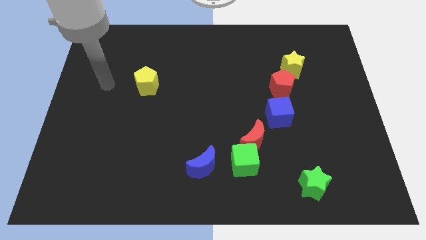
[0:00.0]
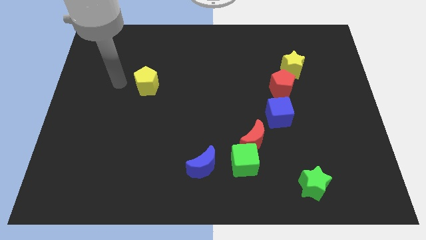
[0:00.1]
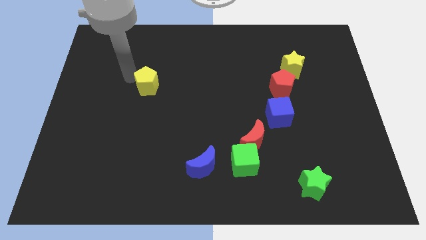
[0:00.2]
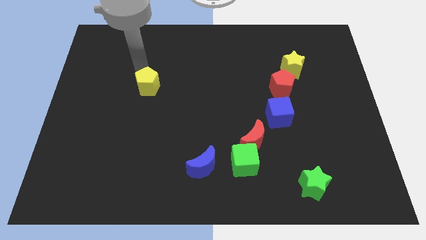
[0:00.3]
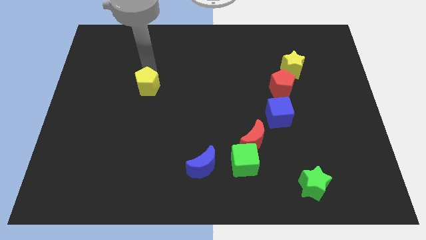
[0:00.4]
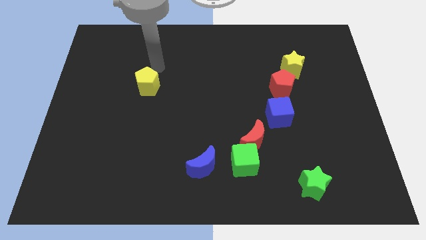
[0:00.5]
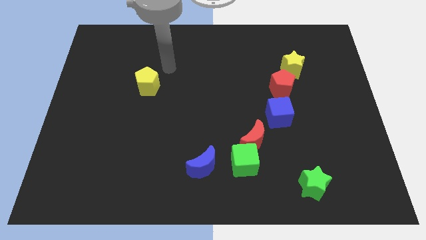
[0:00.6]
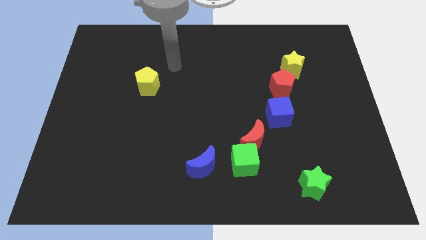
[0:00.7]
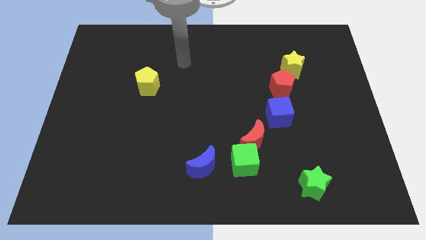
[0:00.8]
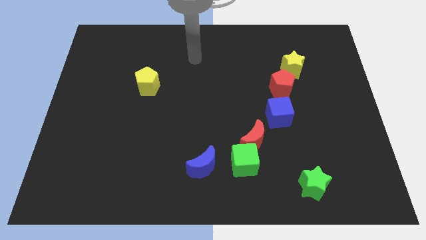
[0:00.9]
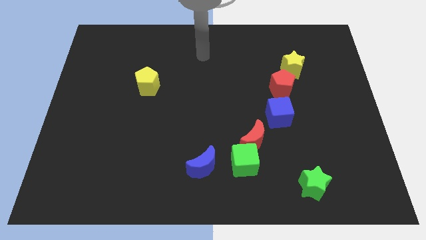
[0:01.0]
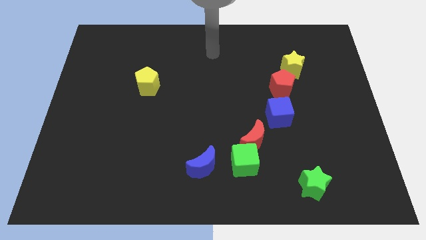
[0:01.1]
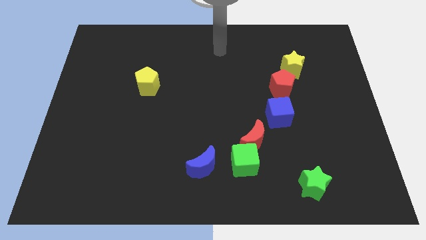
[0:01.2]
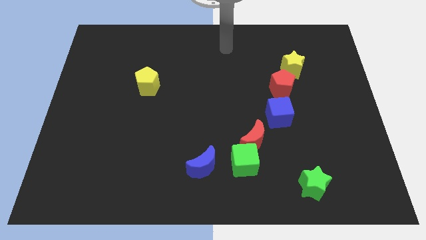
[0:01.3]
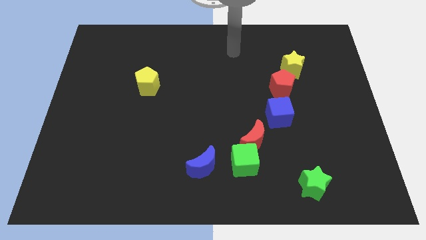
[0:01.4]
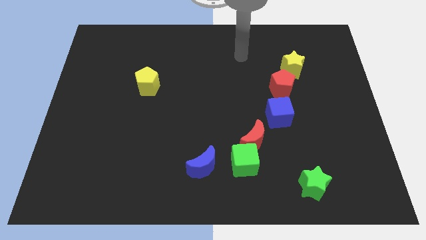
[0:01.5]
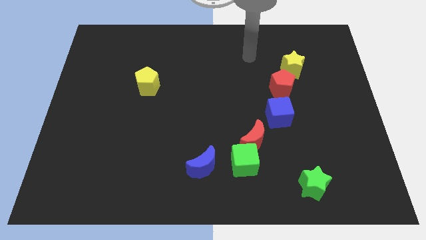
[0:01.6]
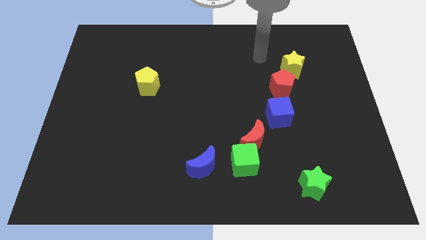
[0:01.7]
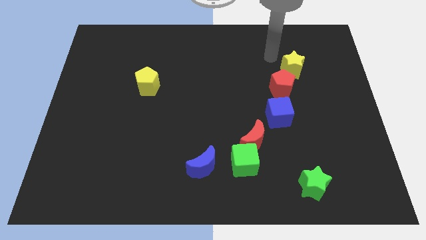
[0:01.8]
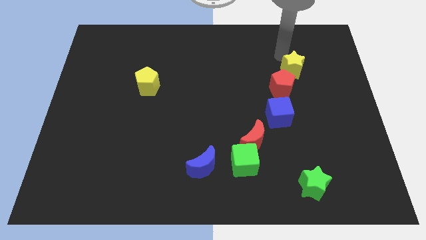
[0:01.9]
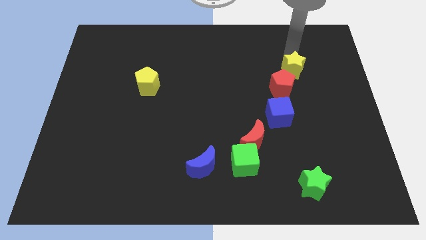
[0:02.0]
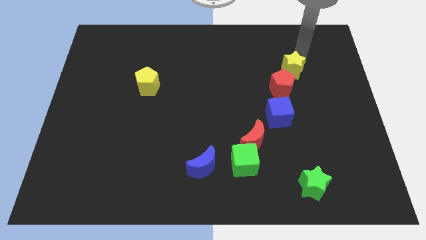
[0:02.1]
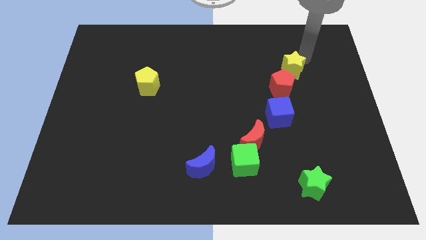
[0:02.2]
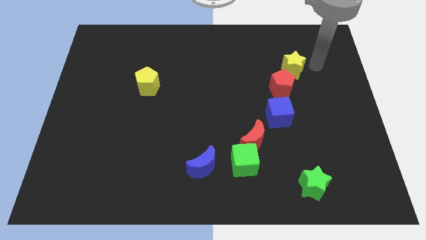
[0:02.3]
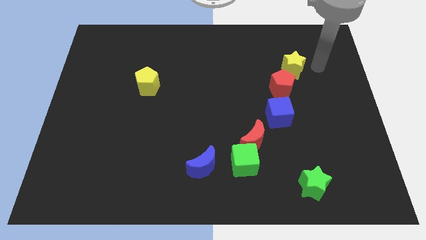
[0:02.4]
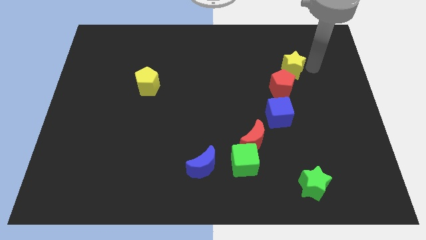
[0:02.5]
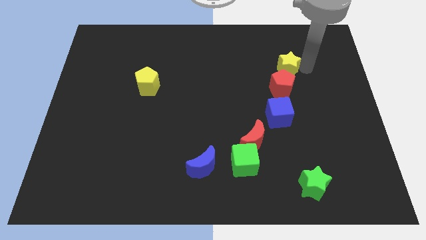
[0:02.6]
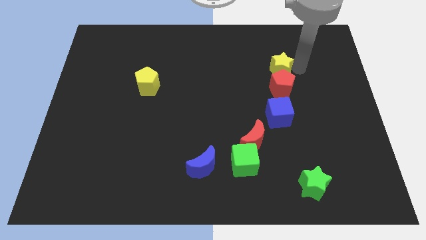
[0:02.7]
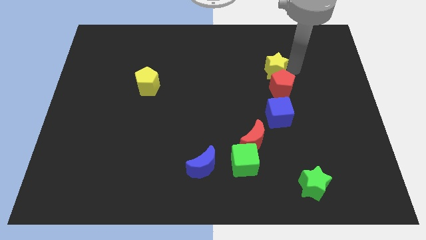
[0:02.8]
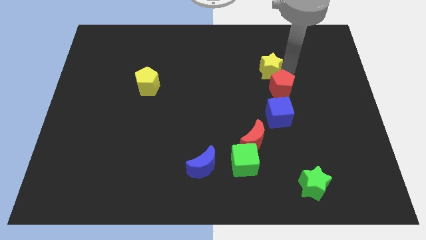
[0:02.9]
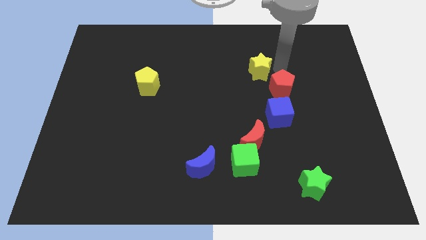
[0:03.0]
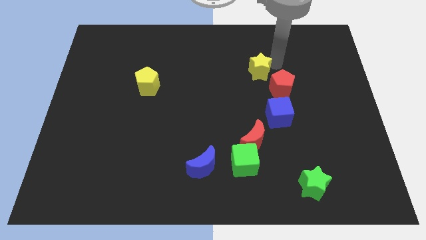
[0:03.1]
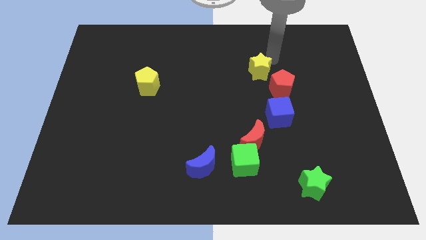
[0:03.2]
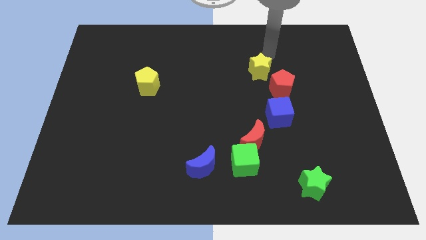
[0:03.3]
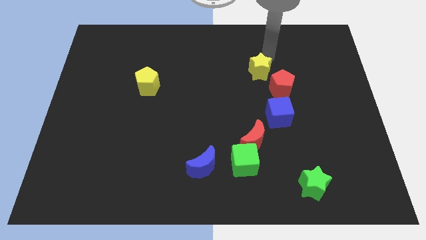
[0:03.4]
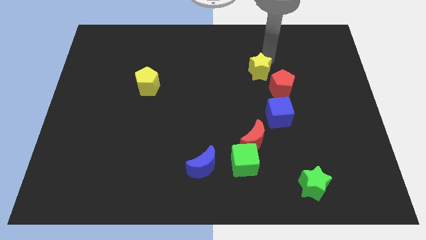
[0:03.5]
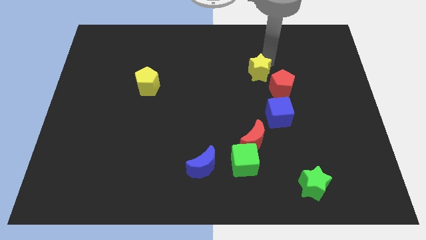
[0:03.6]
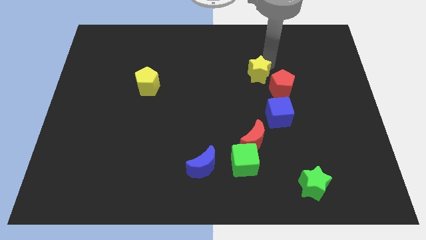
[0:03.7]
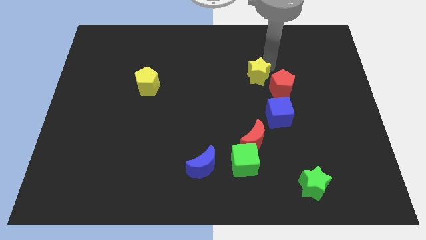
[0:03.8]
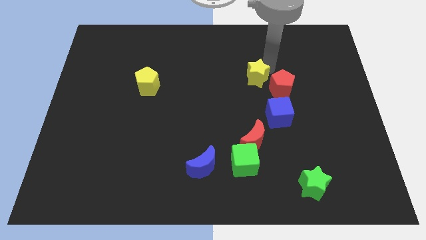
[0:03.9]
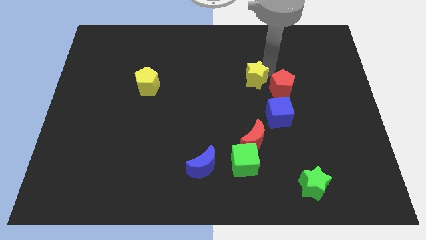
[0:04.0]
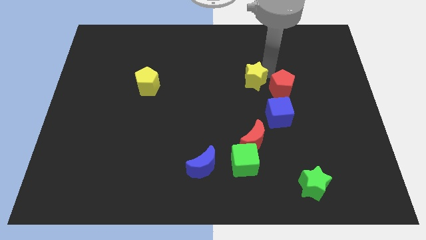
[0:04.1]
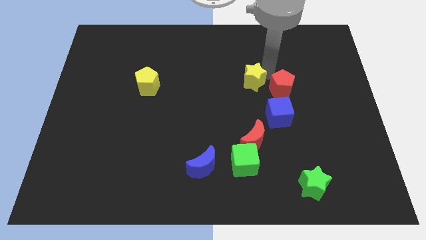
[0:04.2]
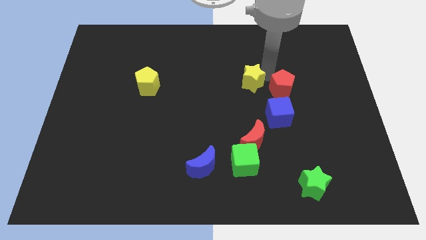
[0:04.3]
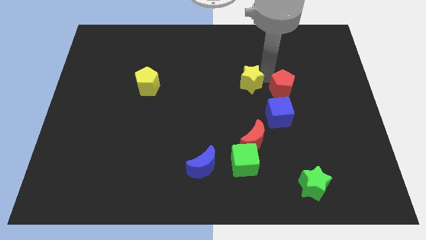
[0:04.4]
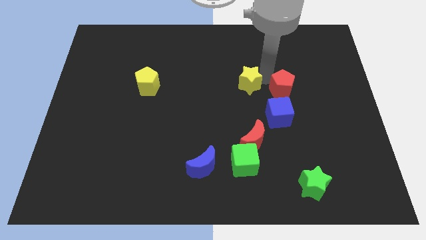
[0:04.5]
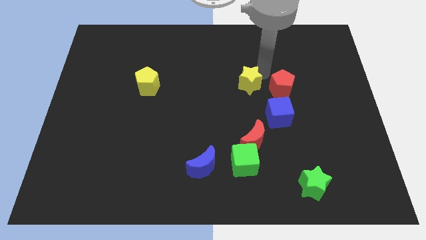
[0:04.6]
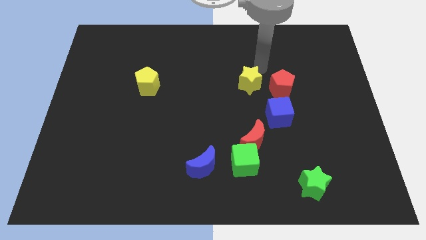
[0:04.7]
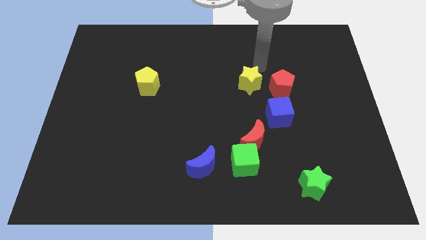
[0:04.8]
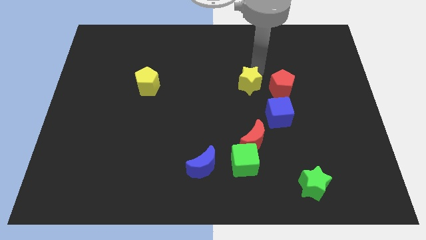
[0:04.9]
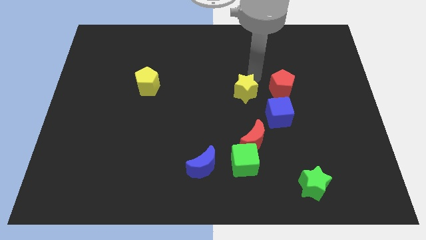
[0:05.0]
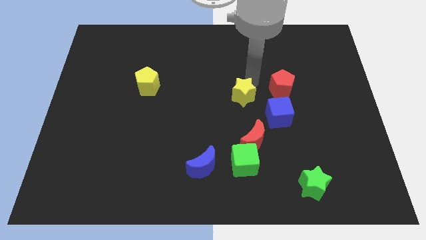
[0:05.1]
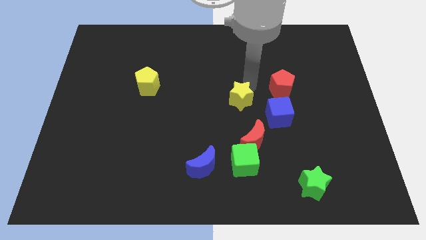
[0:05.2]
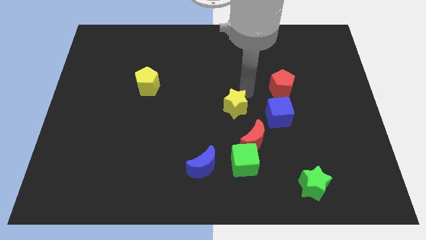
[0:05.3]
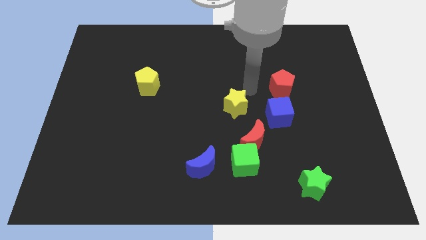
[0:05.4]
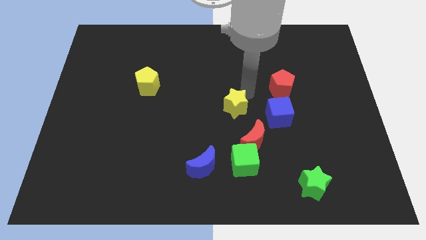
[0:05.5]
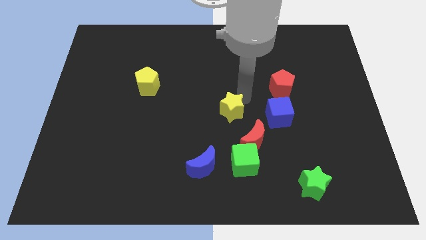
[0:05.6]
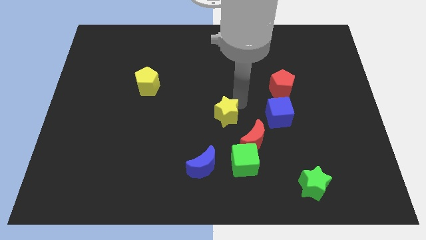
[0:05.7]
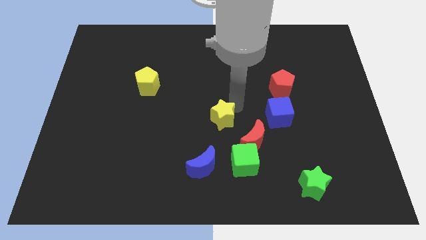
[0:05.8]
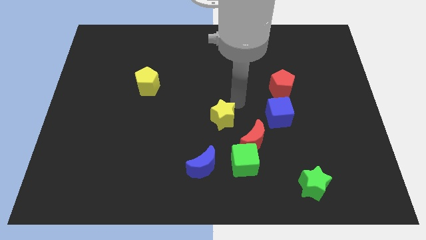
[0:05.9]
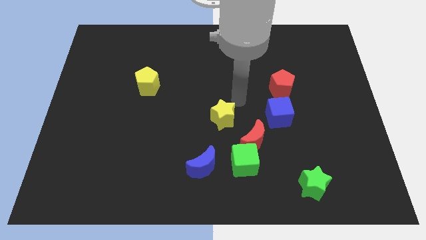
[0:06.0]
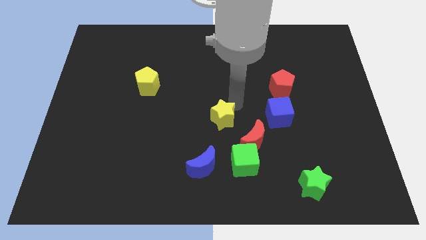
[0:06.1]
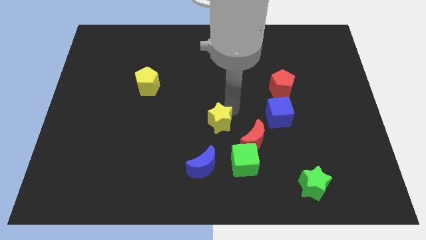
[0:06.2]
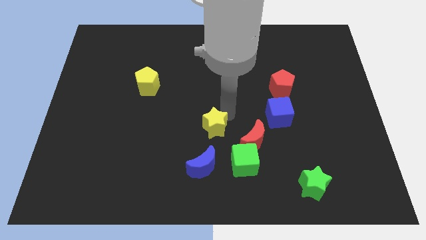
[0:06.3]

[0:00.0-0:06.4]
move the yellow star just left of the red moon

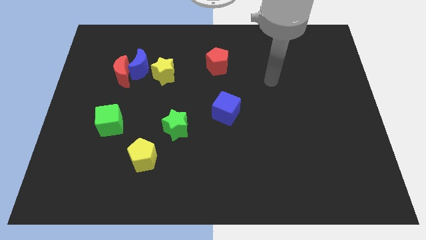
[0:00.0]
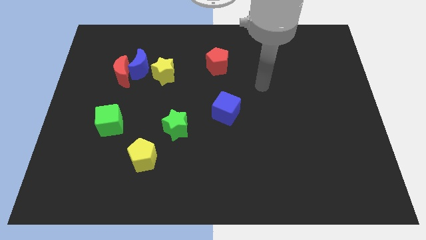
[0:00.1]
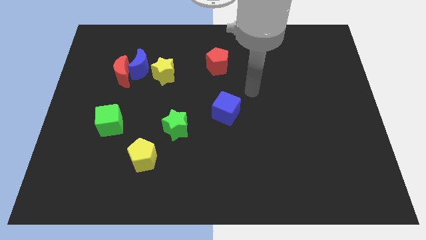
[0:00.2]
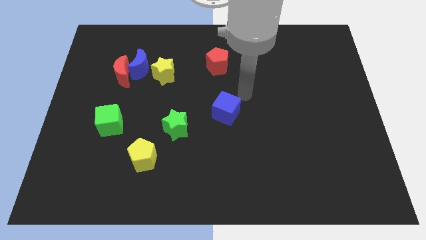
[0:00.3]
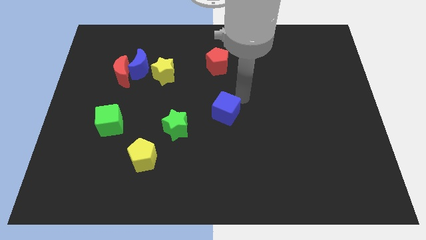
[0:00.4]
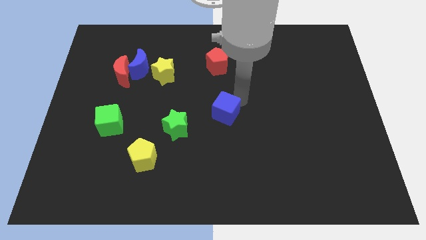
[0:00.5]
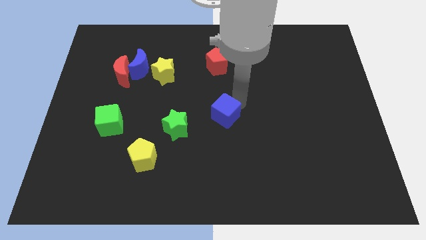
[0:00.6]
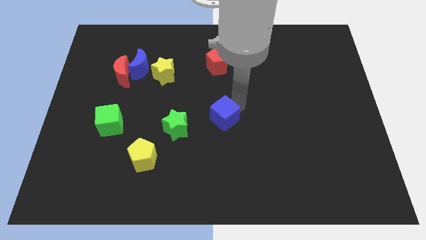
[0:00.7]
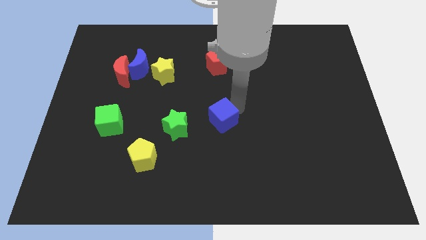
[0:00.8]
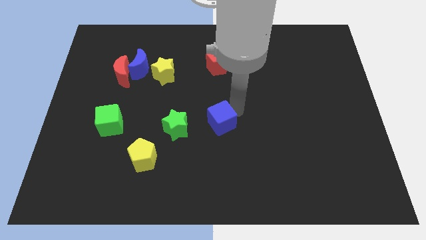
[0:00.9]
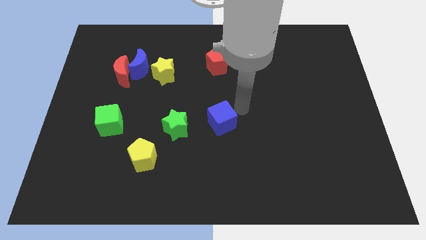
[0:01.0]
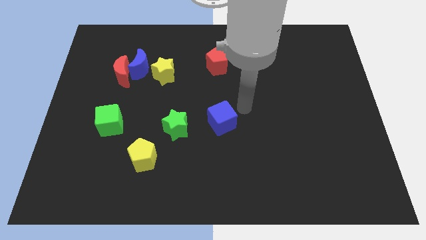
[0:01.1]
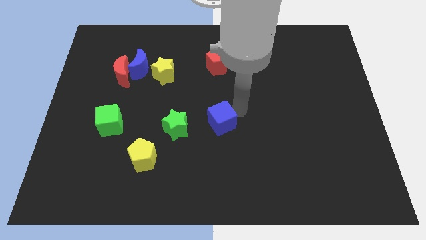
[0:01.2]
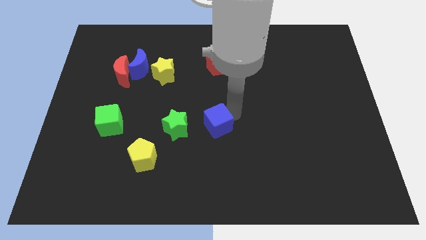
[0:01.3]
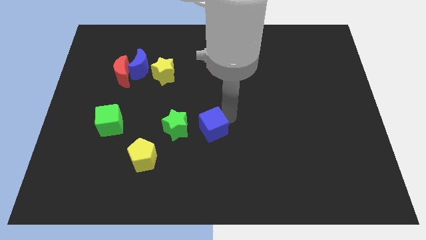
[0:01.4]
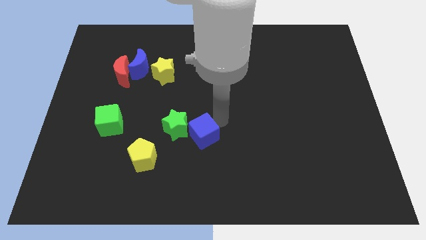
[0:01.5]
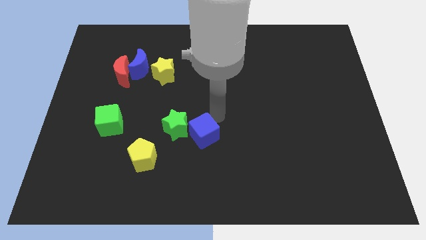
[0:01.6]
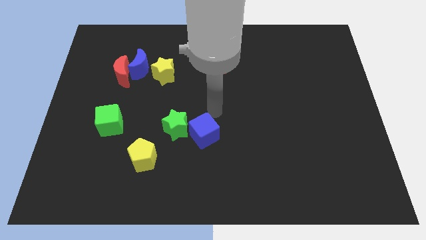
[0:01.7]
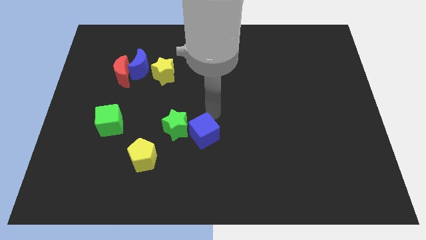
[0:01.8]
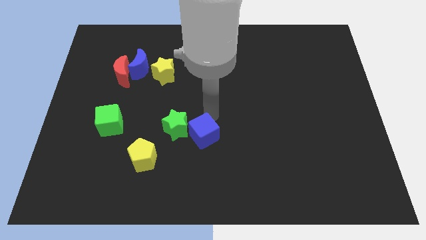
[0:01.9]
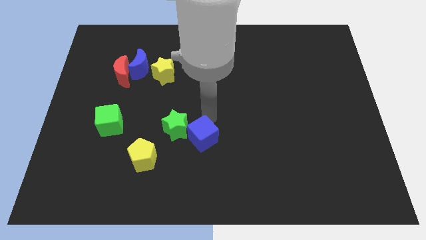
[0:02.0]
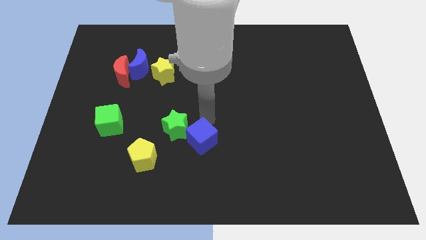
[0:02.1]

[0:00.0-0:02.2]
put the blue cube right of the yellow pentagon
